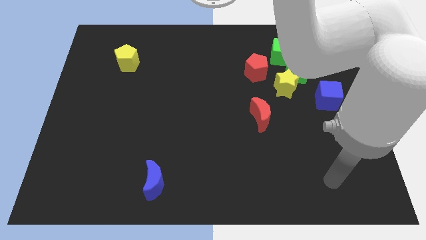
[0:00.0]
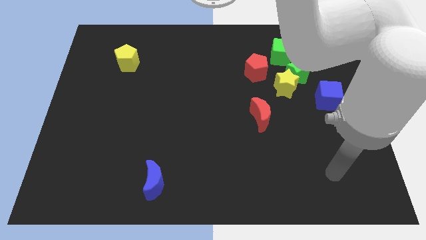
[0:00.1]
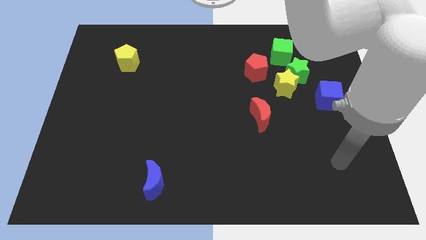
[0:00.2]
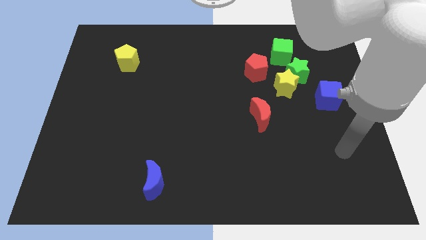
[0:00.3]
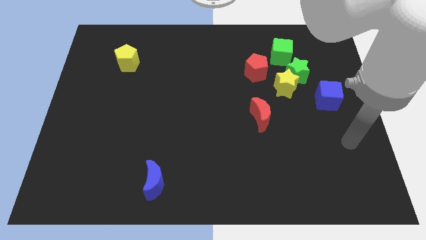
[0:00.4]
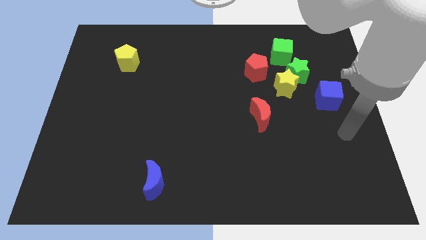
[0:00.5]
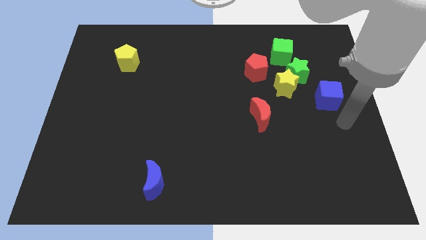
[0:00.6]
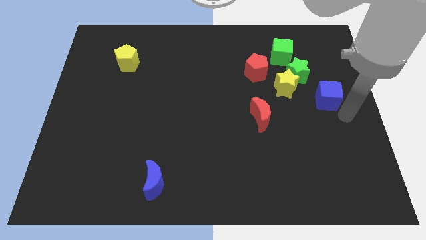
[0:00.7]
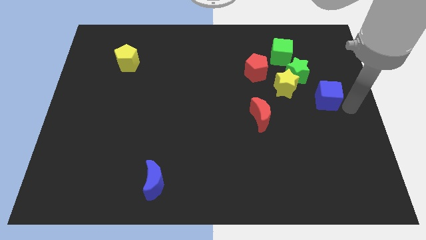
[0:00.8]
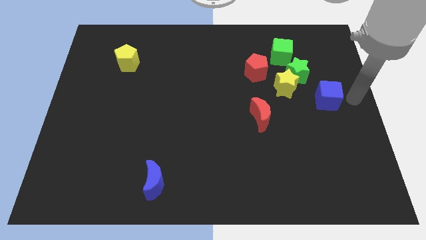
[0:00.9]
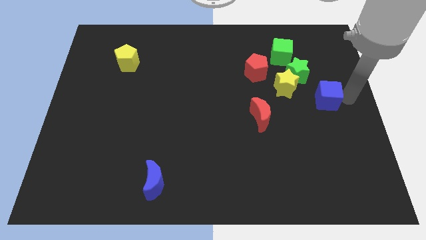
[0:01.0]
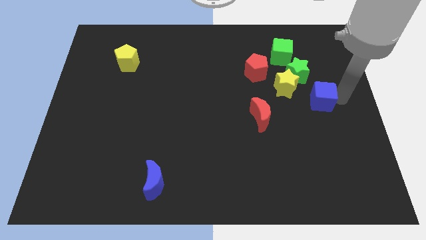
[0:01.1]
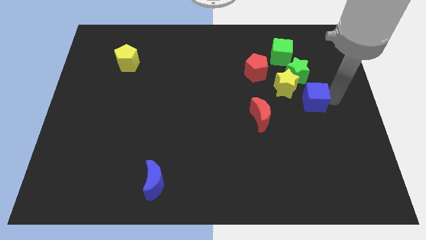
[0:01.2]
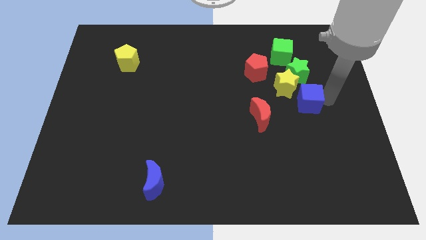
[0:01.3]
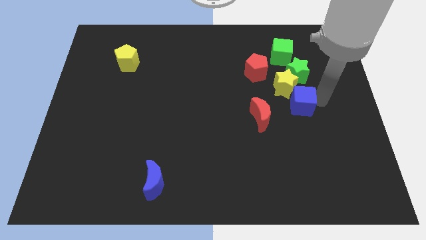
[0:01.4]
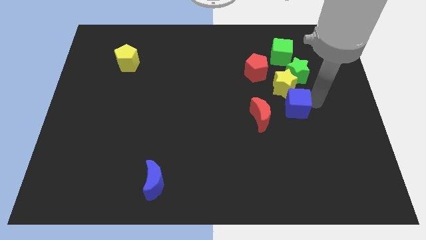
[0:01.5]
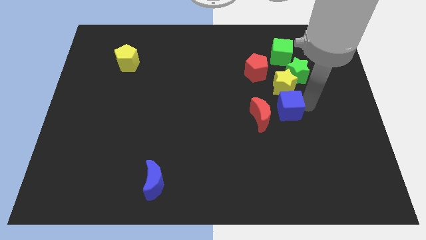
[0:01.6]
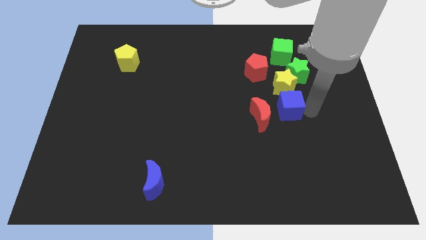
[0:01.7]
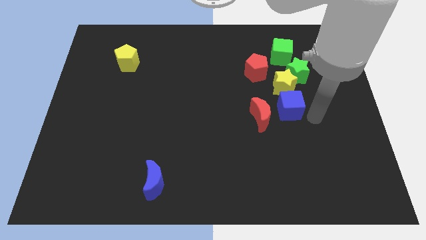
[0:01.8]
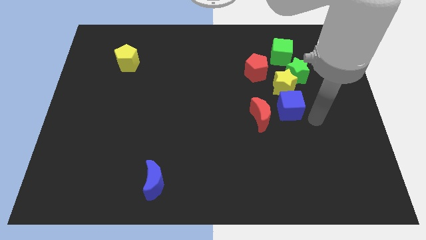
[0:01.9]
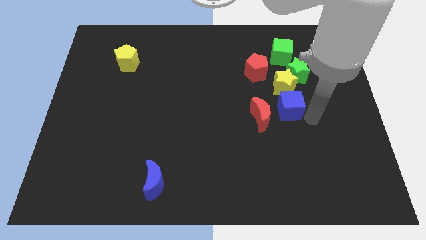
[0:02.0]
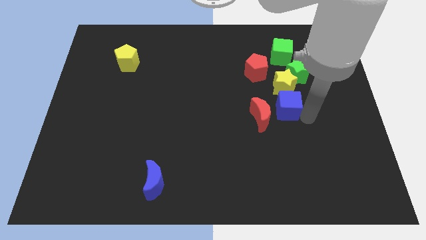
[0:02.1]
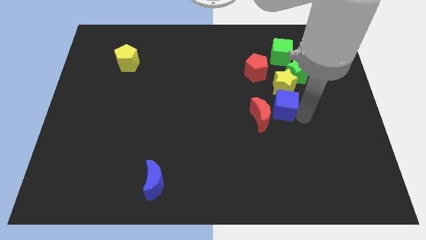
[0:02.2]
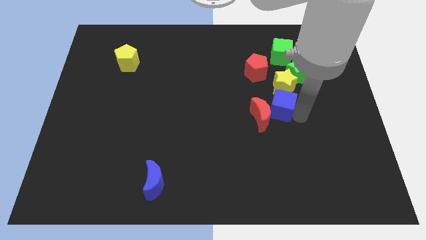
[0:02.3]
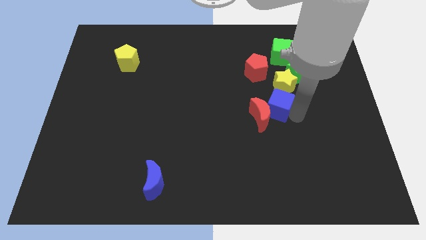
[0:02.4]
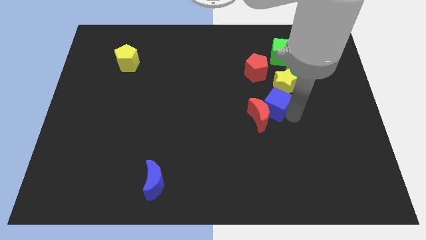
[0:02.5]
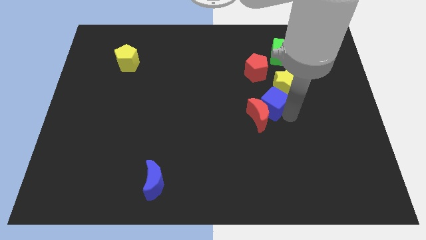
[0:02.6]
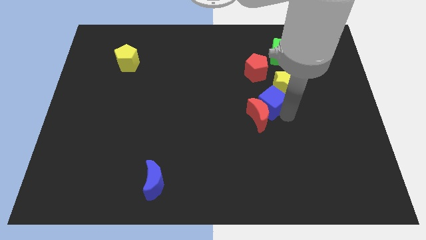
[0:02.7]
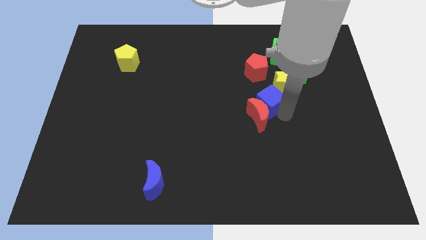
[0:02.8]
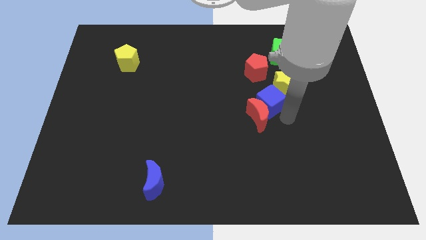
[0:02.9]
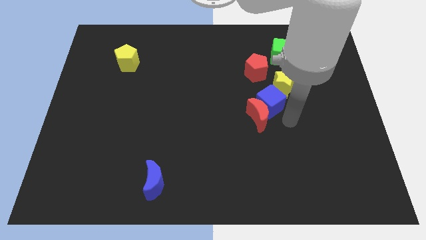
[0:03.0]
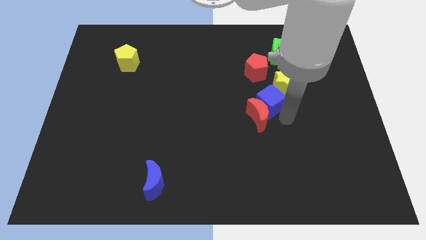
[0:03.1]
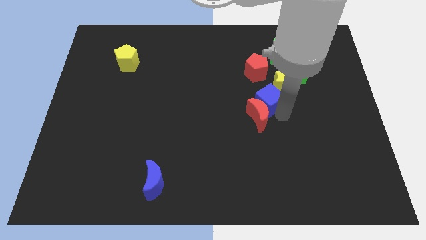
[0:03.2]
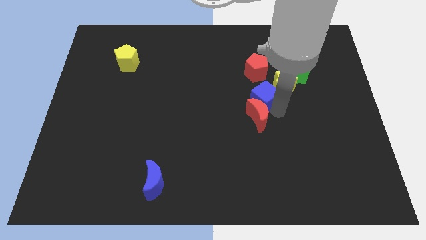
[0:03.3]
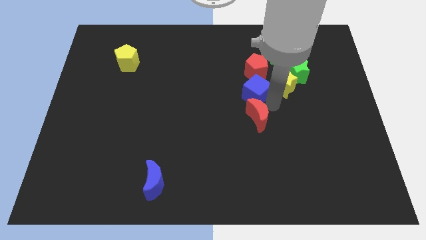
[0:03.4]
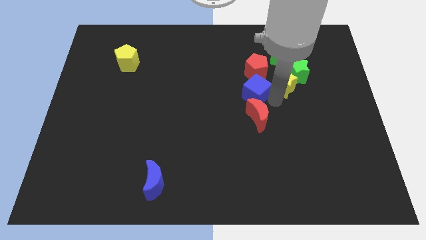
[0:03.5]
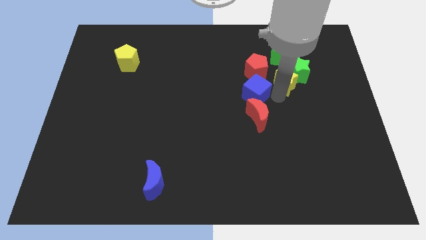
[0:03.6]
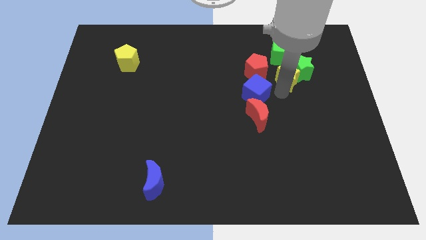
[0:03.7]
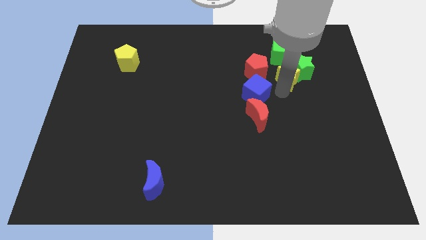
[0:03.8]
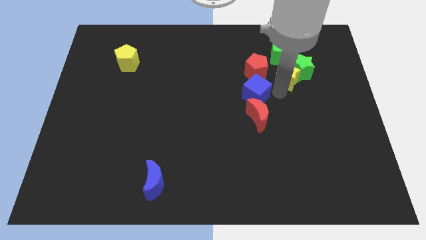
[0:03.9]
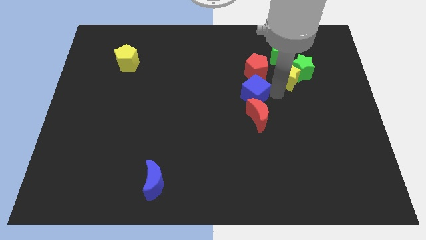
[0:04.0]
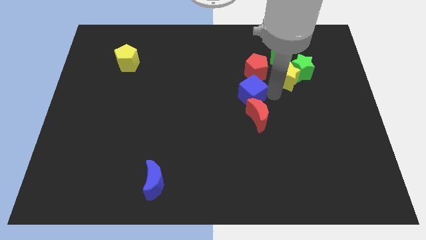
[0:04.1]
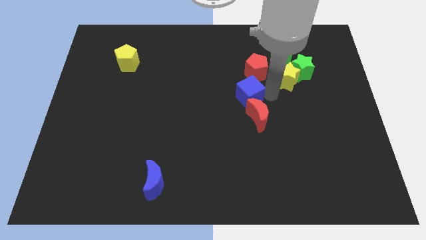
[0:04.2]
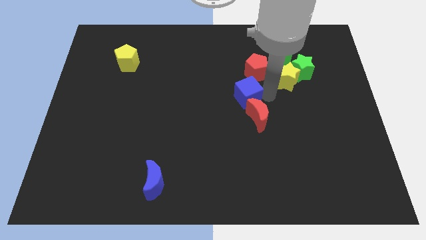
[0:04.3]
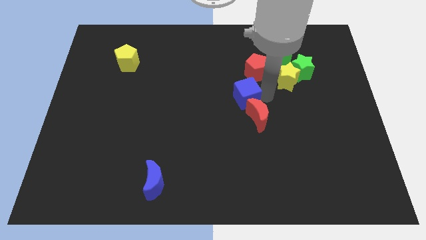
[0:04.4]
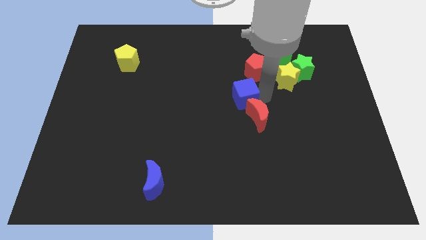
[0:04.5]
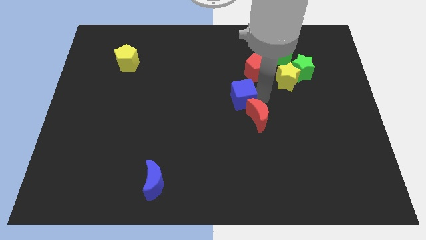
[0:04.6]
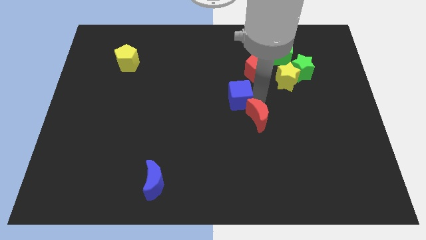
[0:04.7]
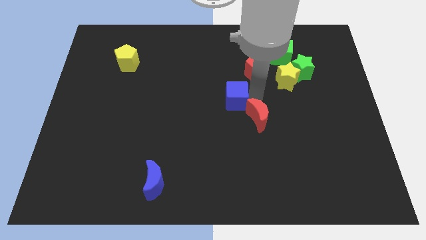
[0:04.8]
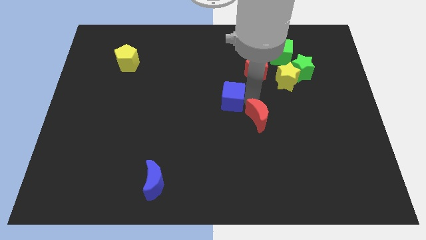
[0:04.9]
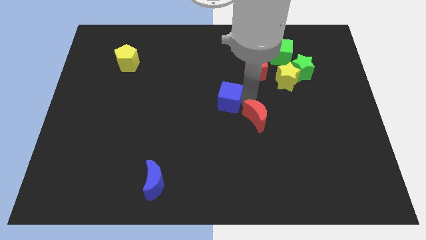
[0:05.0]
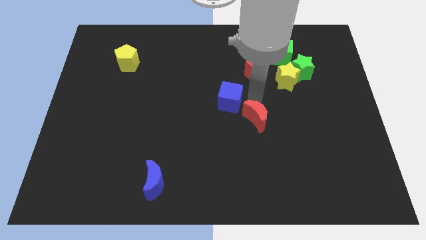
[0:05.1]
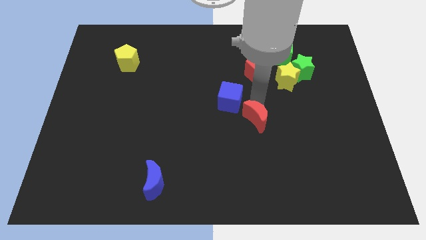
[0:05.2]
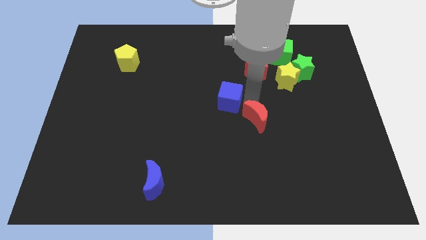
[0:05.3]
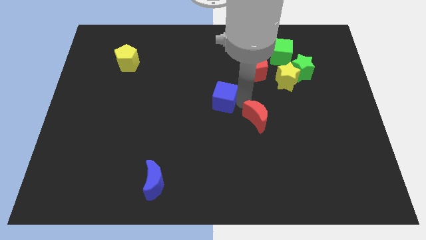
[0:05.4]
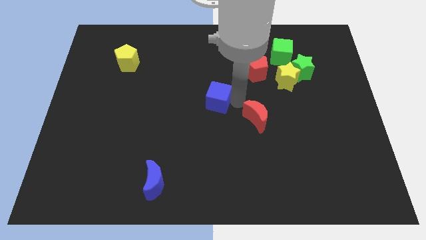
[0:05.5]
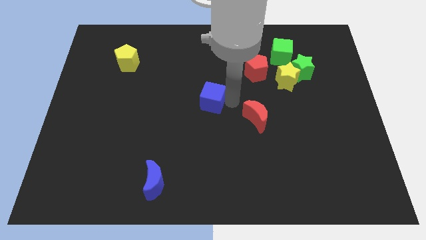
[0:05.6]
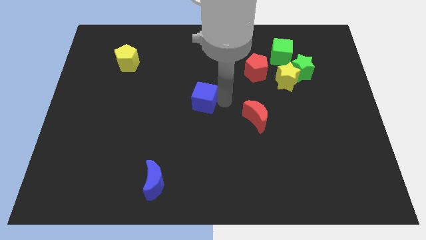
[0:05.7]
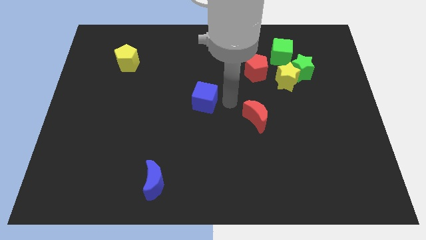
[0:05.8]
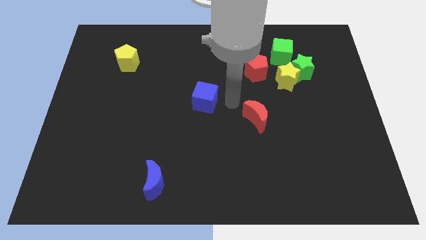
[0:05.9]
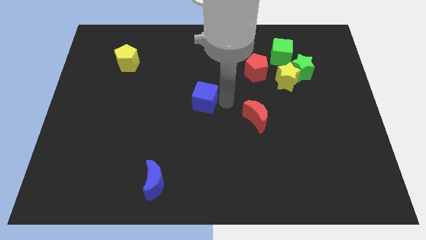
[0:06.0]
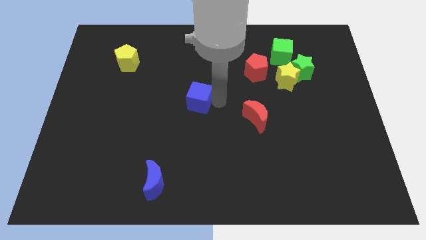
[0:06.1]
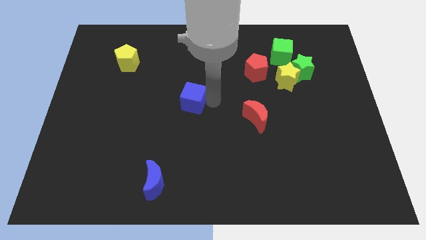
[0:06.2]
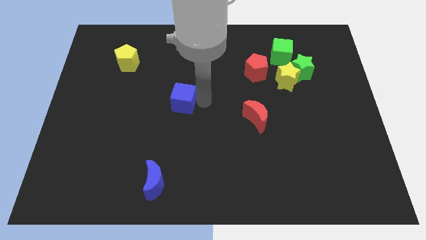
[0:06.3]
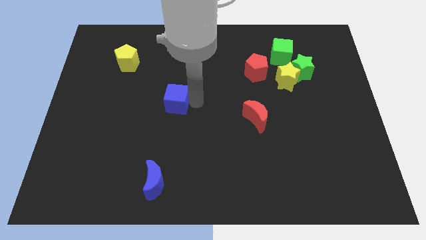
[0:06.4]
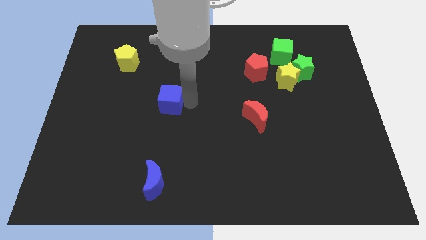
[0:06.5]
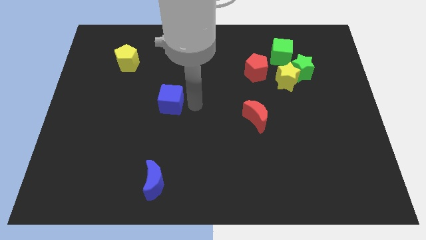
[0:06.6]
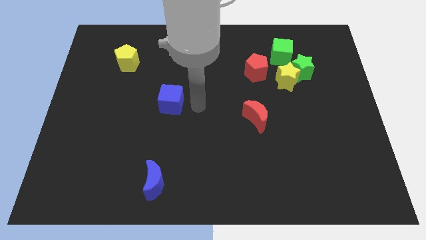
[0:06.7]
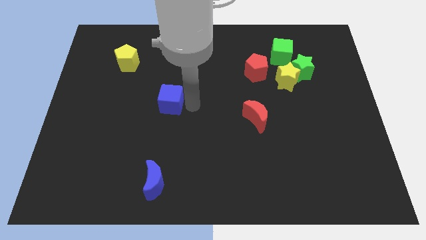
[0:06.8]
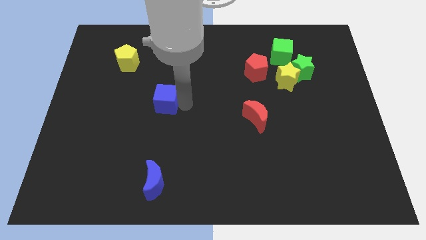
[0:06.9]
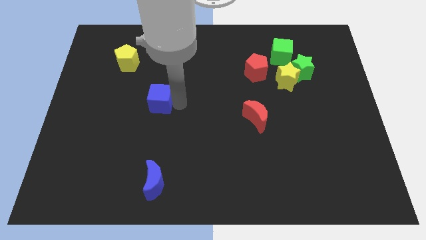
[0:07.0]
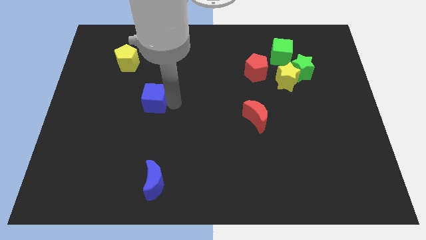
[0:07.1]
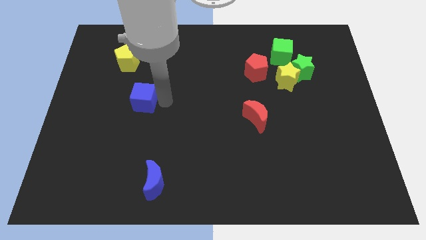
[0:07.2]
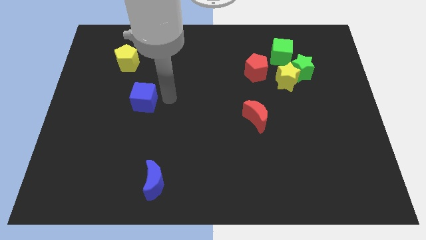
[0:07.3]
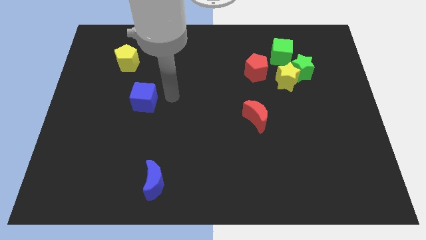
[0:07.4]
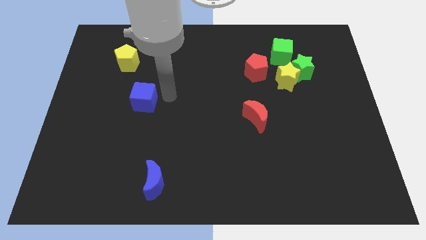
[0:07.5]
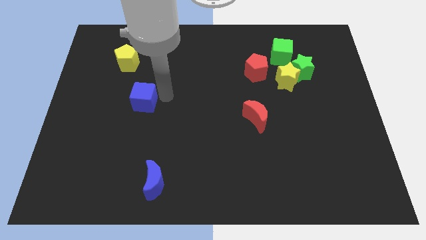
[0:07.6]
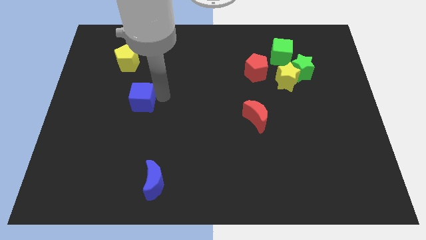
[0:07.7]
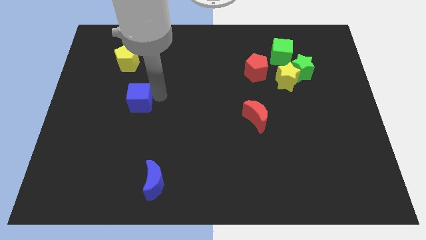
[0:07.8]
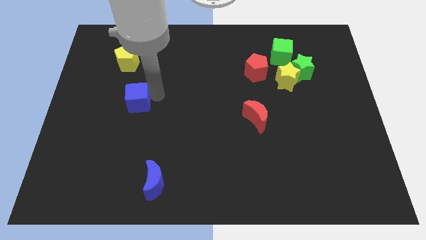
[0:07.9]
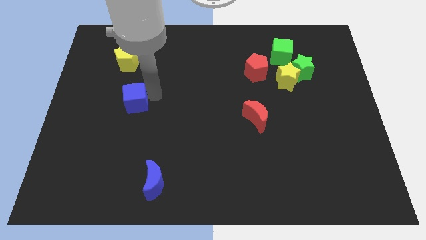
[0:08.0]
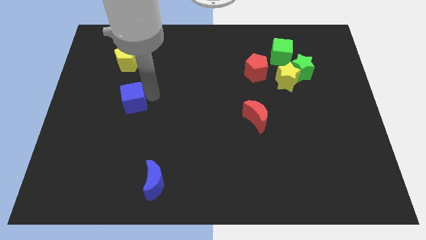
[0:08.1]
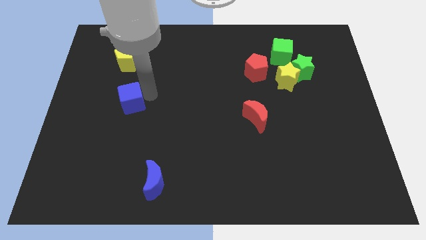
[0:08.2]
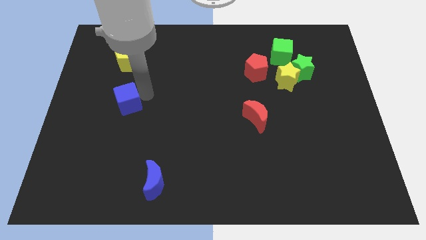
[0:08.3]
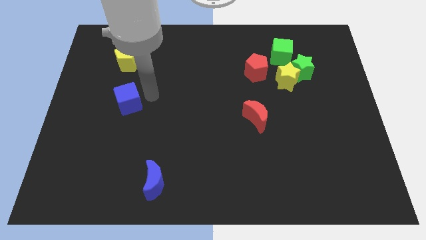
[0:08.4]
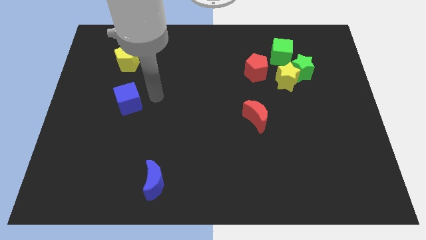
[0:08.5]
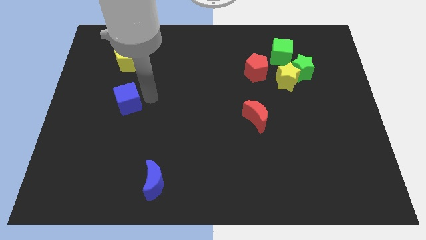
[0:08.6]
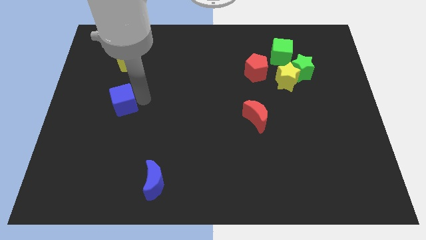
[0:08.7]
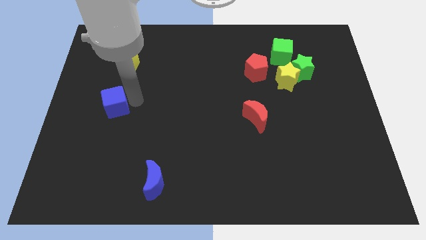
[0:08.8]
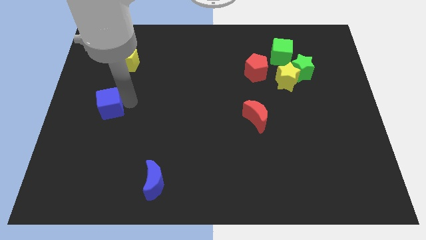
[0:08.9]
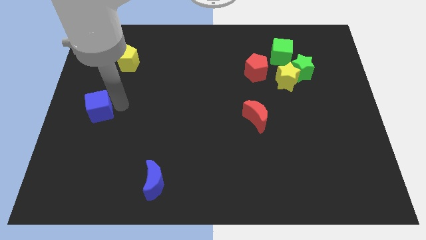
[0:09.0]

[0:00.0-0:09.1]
push the blue cube to the left side of the board
